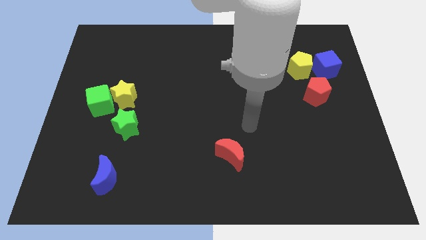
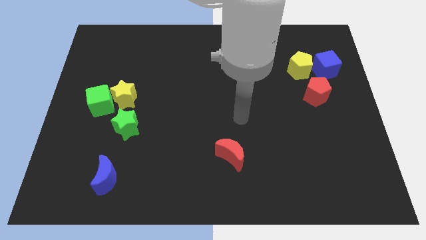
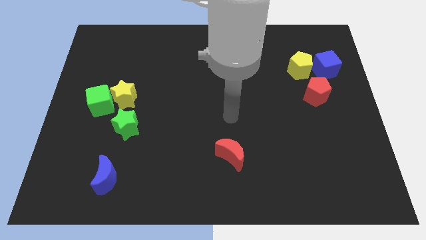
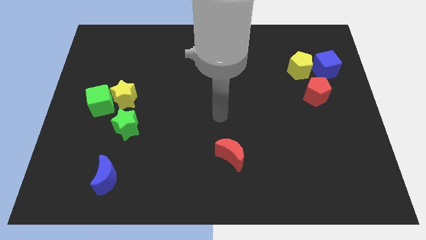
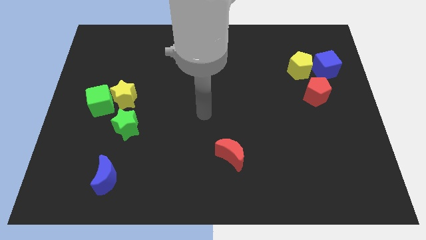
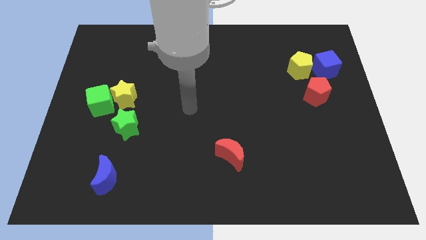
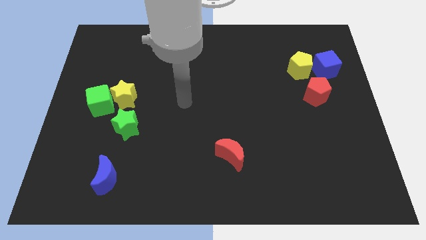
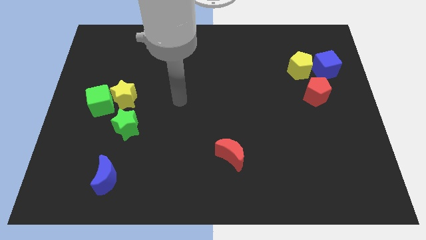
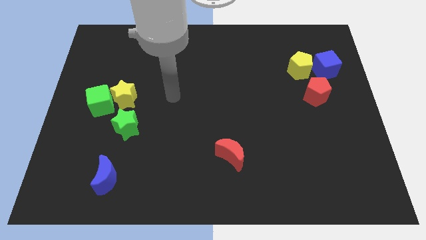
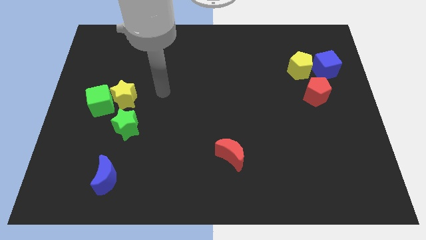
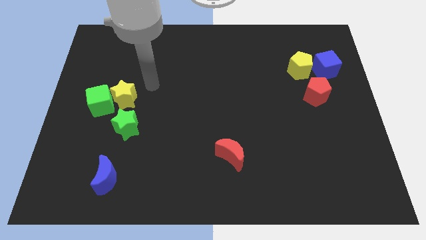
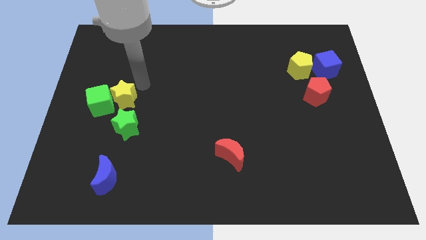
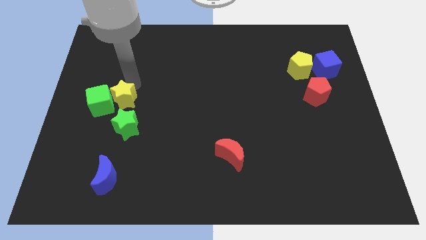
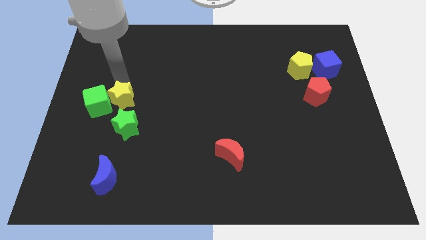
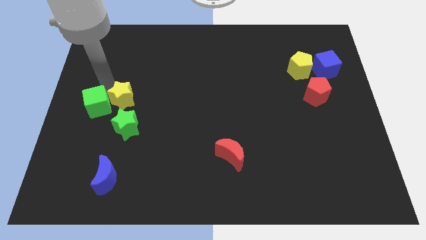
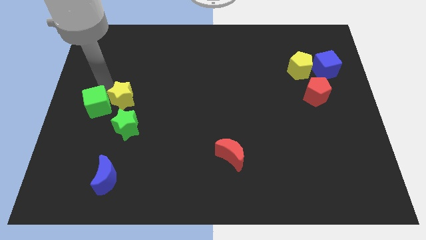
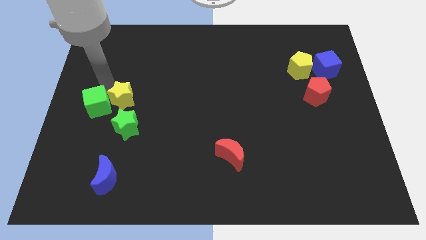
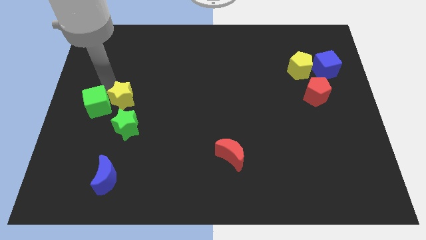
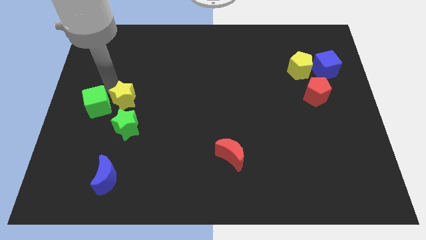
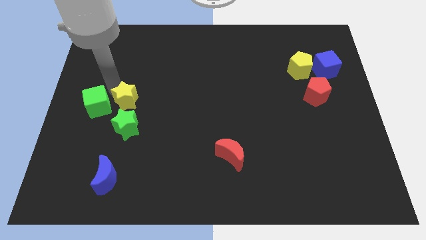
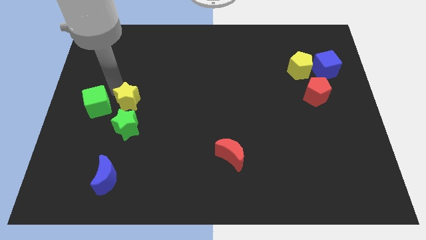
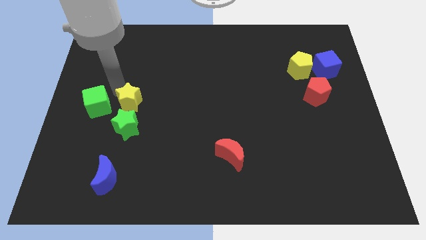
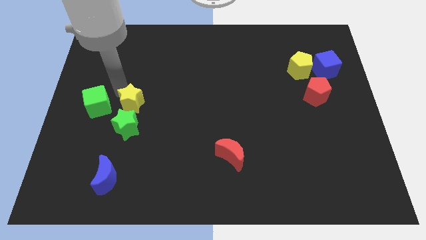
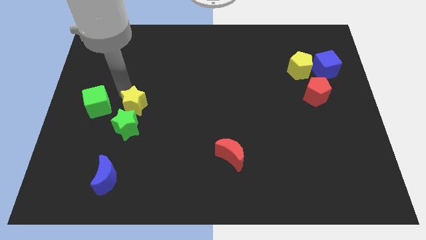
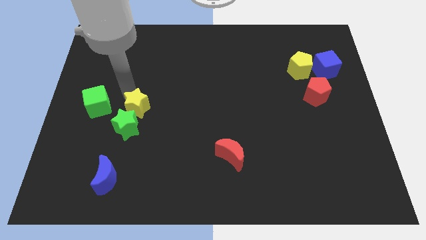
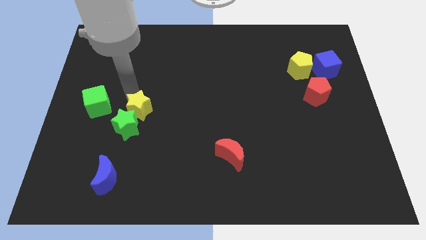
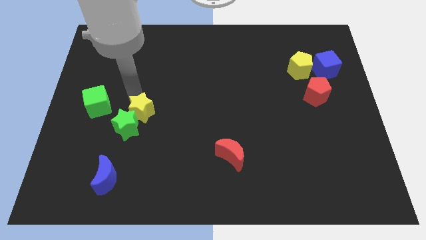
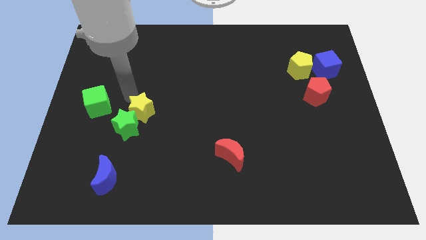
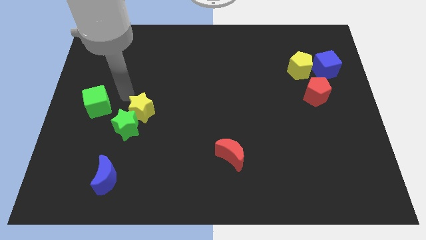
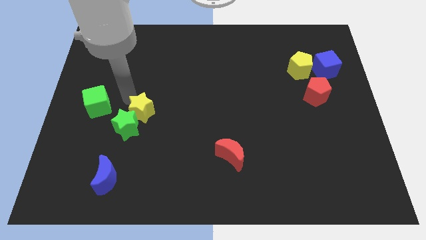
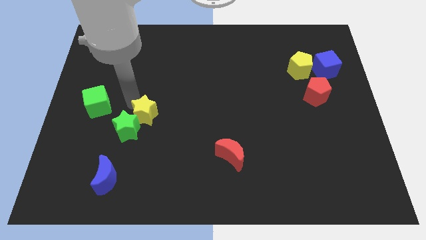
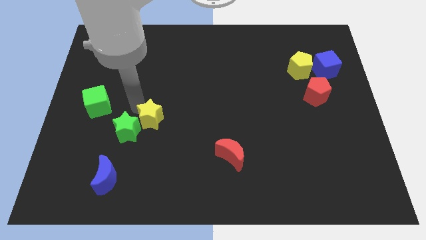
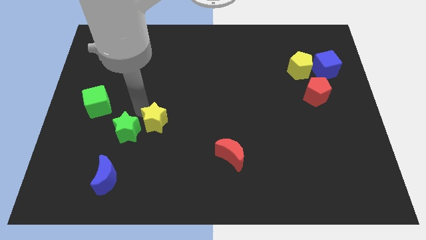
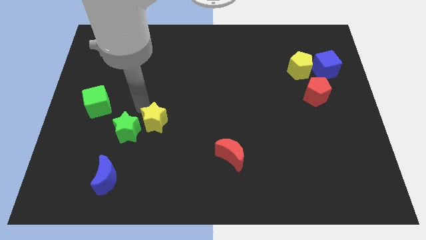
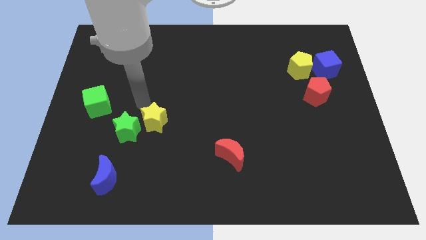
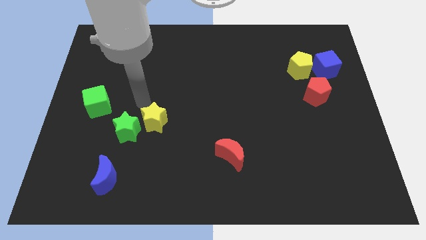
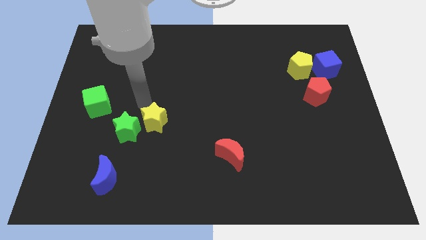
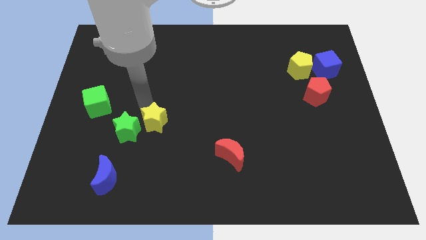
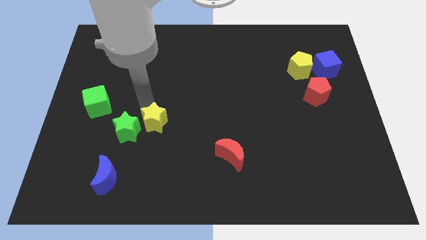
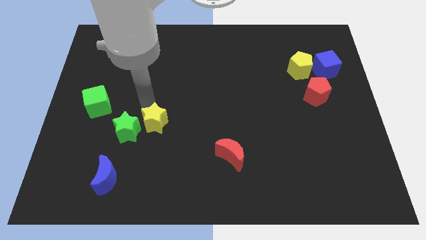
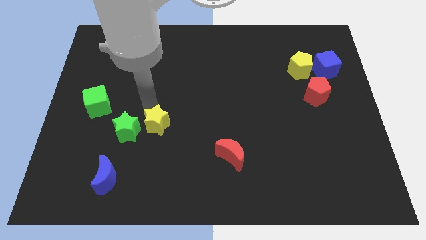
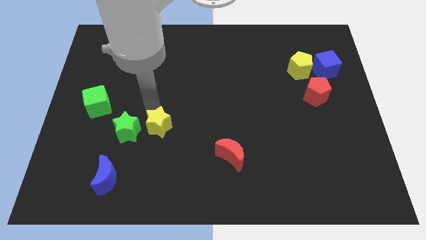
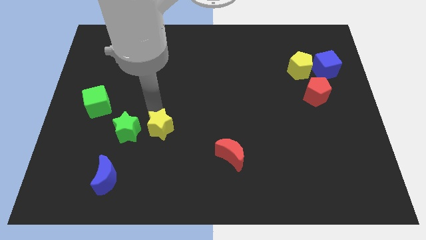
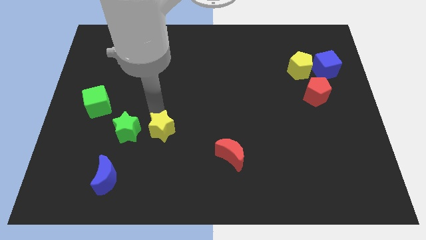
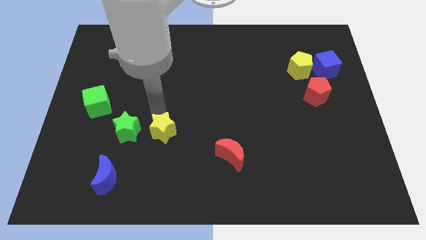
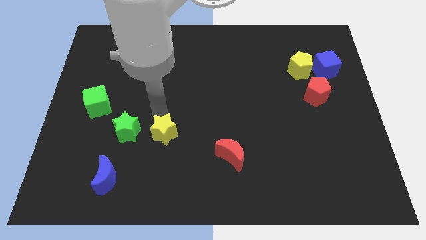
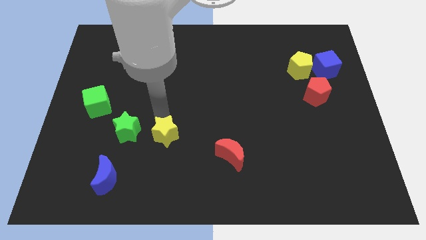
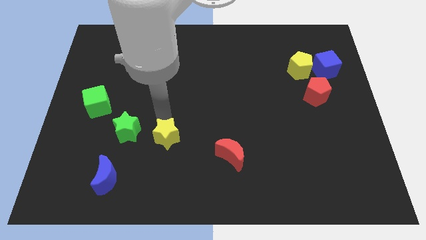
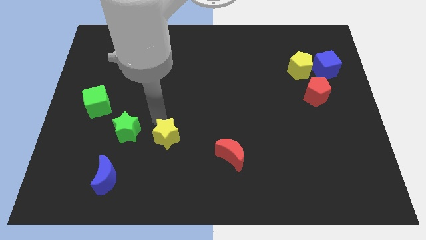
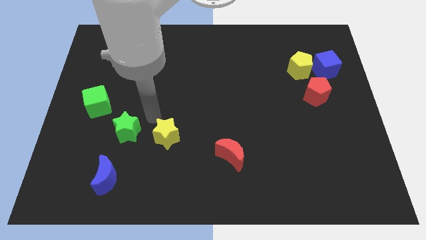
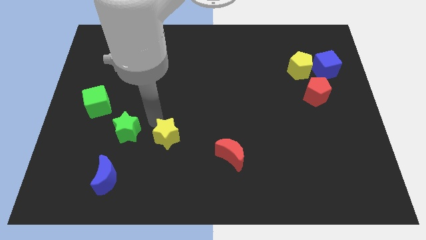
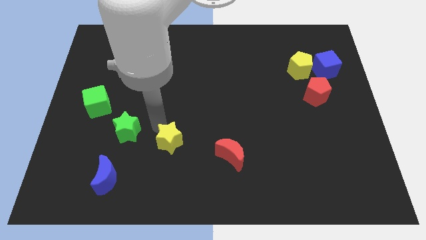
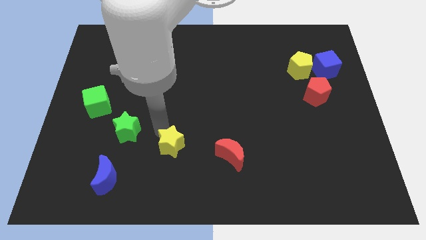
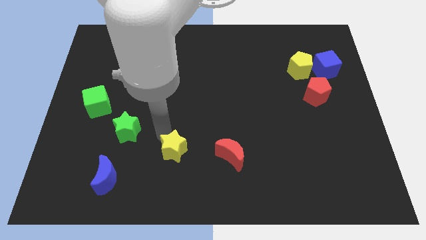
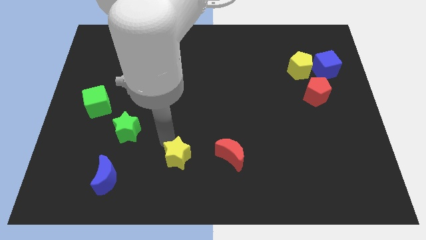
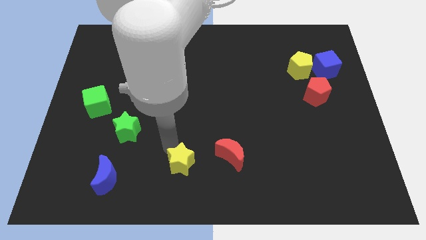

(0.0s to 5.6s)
move the yellow star to the bottom

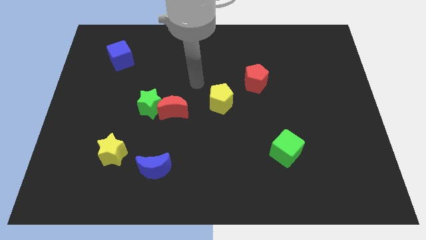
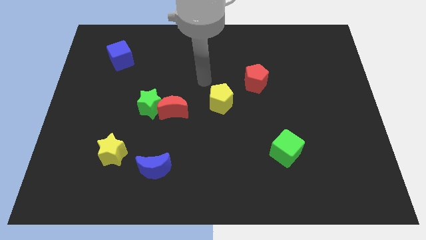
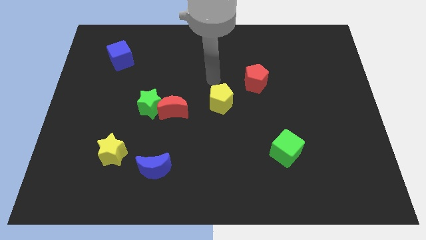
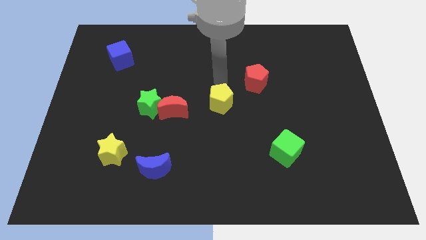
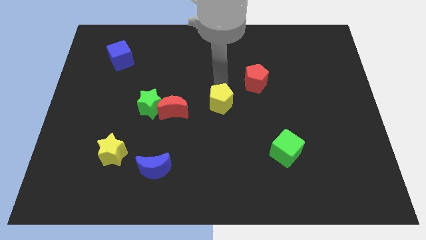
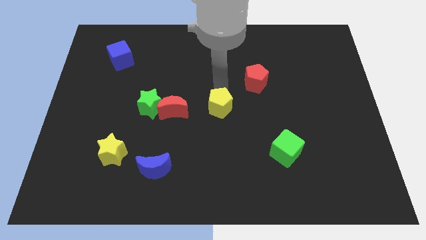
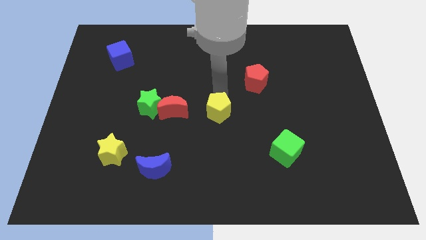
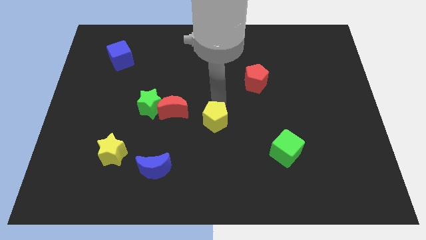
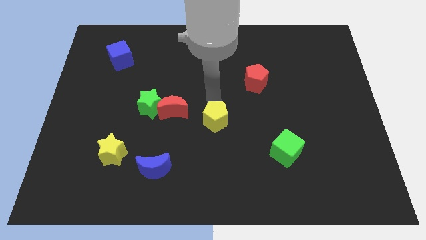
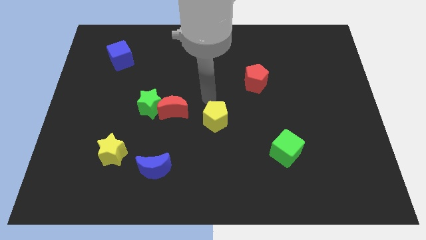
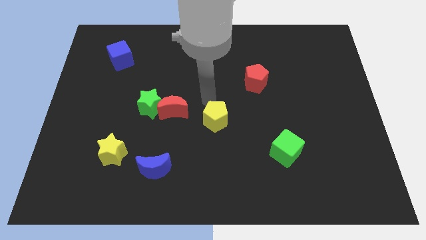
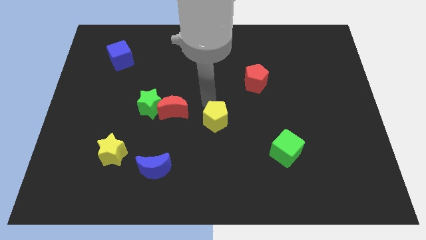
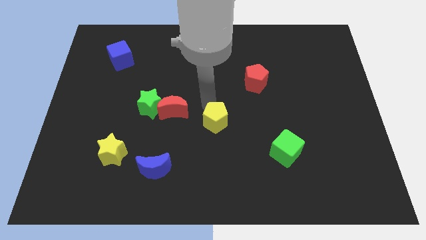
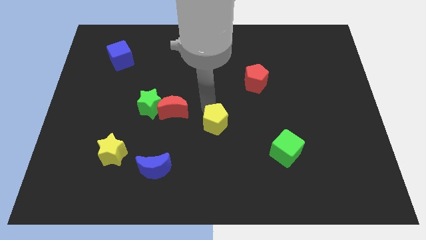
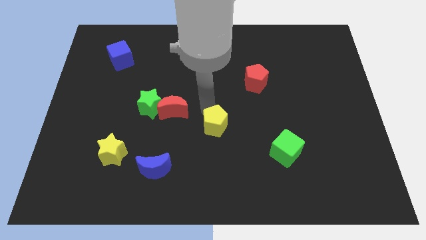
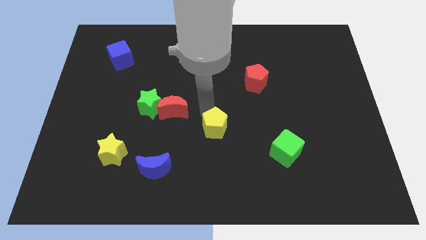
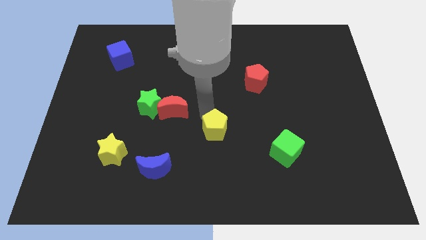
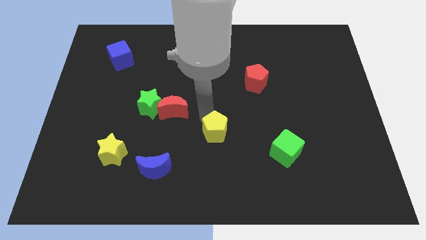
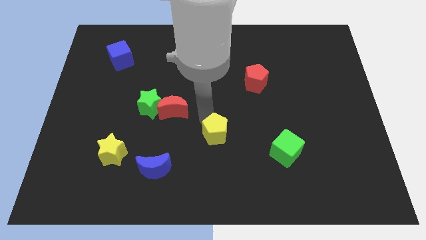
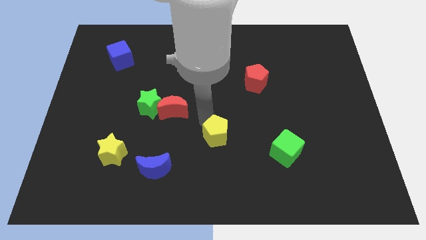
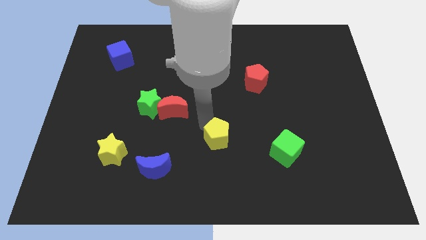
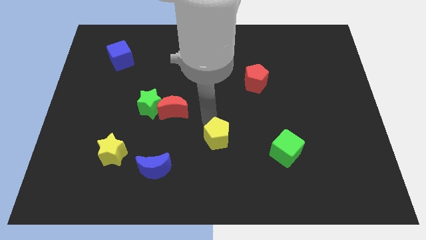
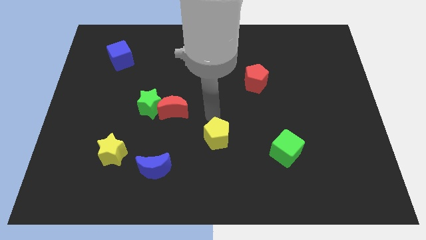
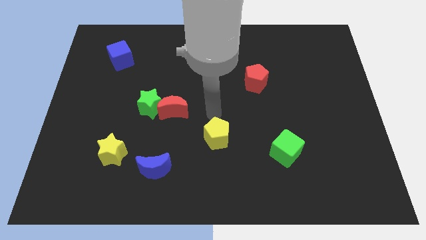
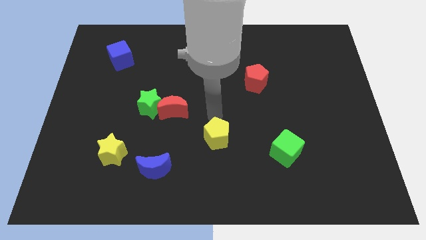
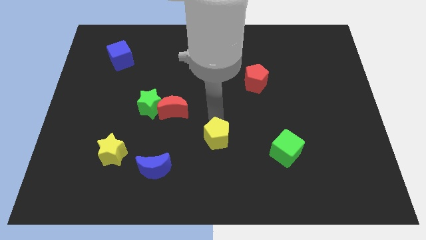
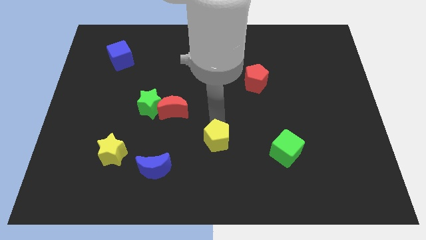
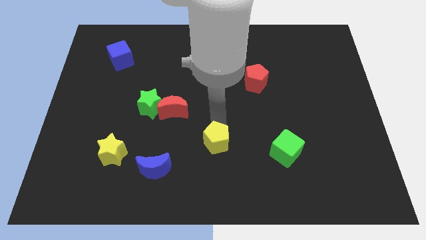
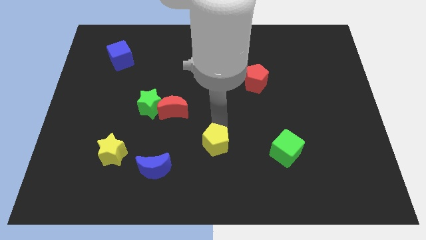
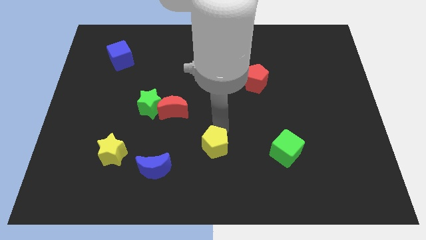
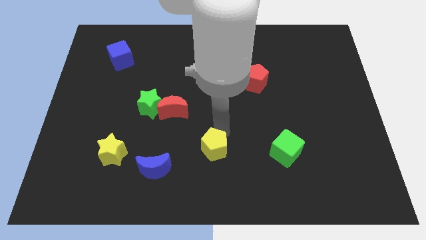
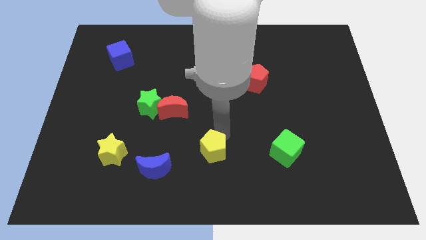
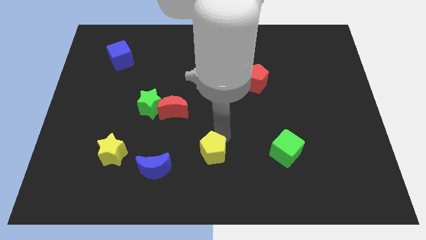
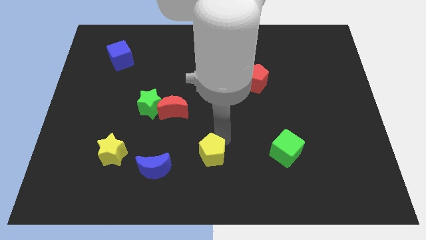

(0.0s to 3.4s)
slide the yellow pentagon to the bottom side

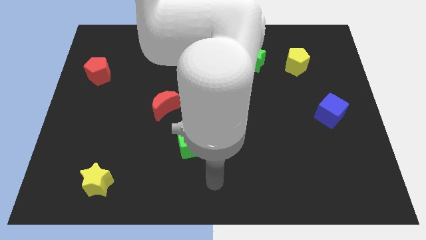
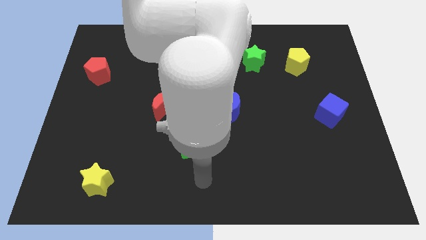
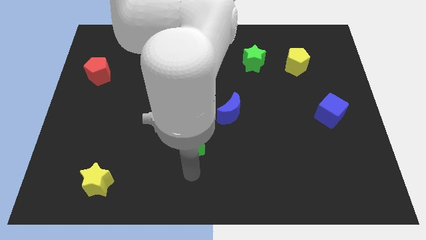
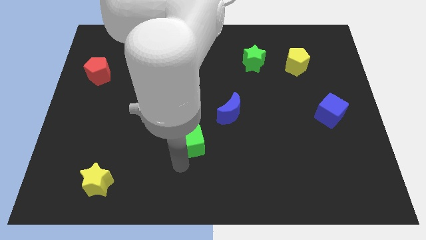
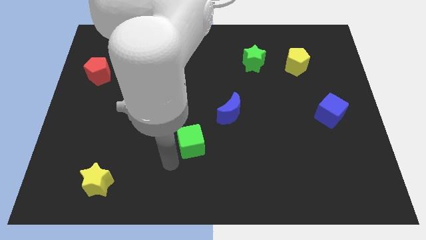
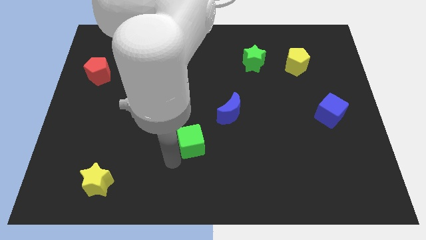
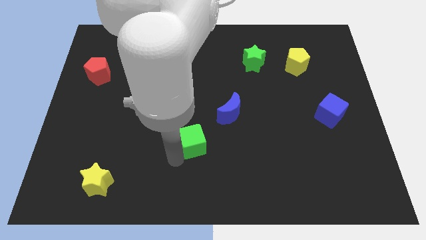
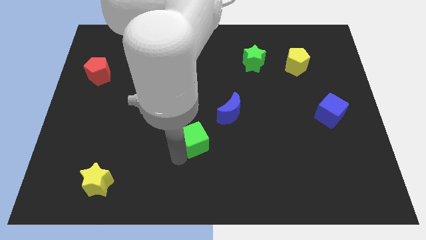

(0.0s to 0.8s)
move the green cube to the center
